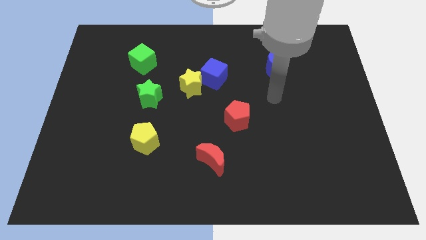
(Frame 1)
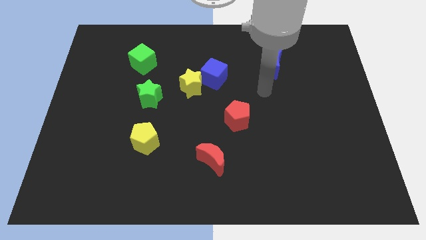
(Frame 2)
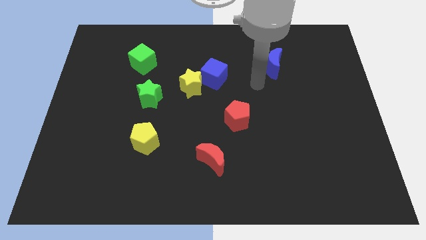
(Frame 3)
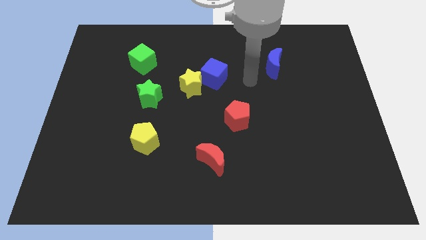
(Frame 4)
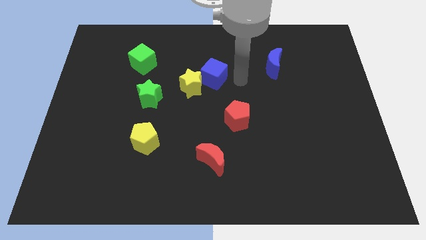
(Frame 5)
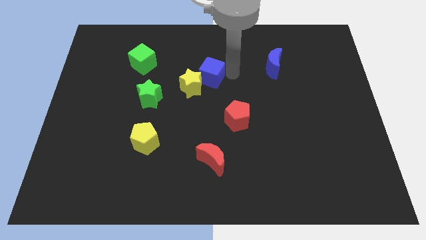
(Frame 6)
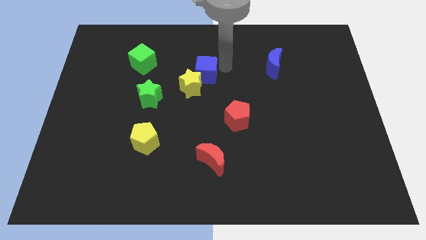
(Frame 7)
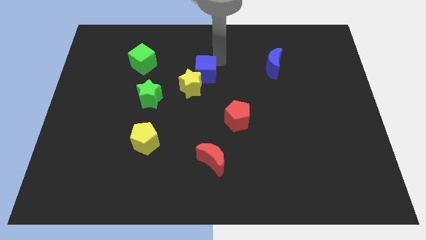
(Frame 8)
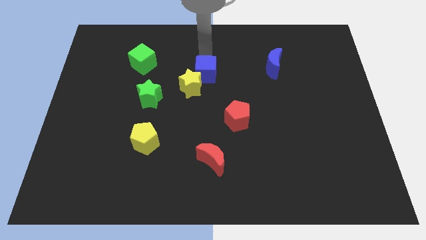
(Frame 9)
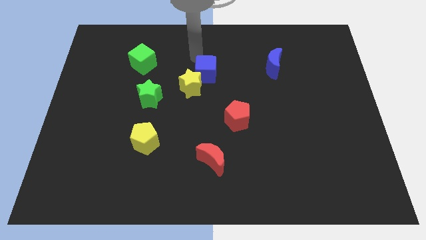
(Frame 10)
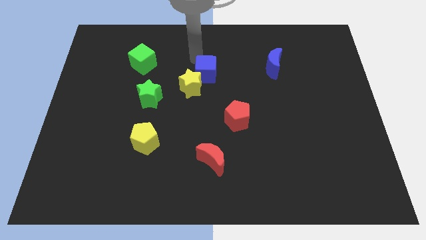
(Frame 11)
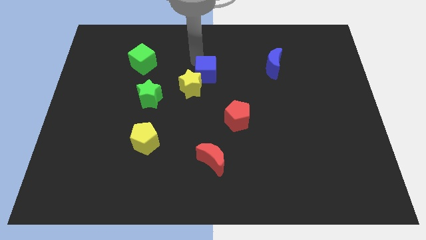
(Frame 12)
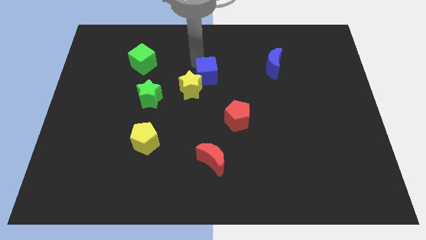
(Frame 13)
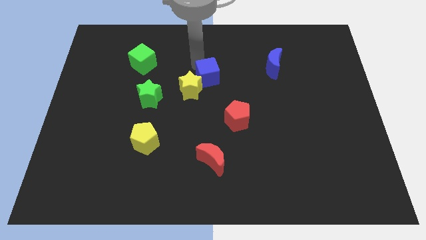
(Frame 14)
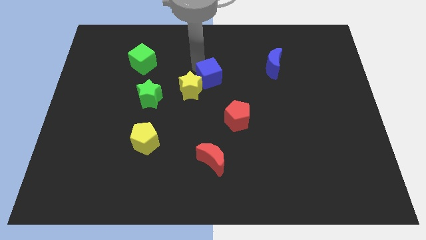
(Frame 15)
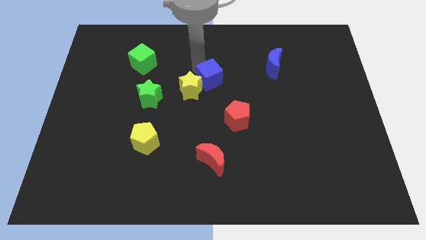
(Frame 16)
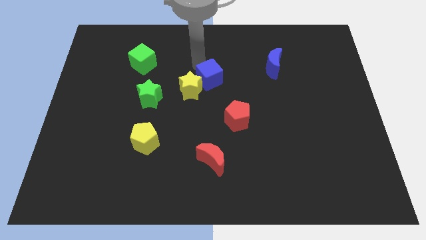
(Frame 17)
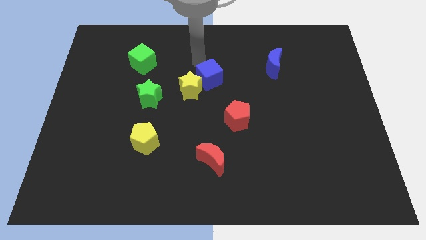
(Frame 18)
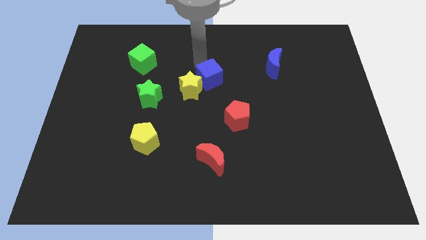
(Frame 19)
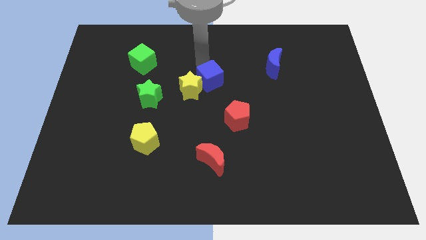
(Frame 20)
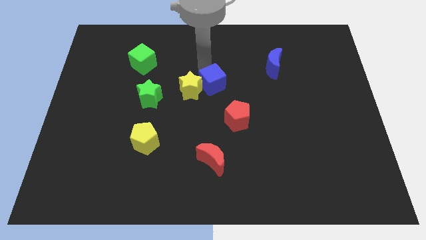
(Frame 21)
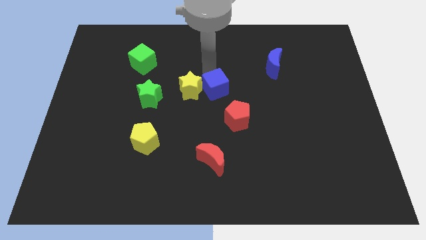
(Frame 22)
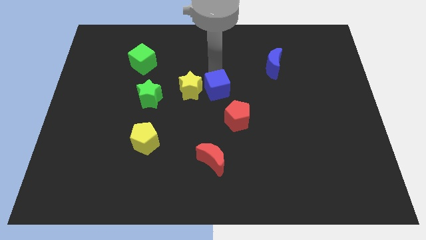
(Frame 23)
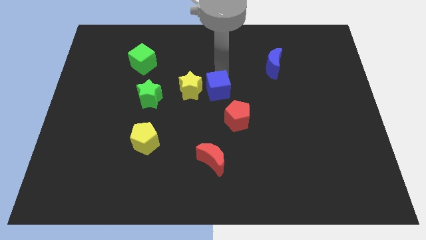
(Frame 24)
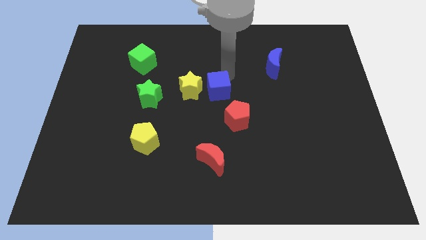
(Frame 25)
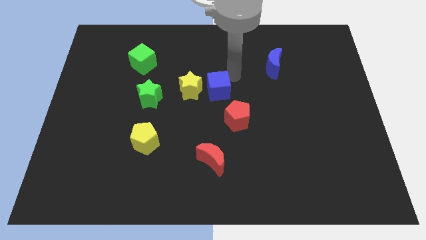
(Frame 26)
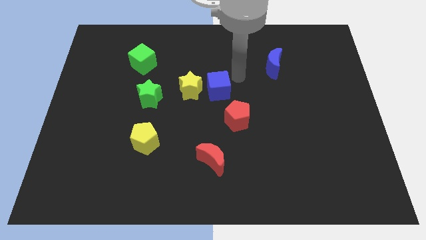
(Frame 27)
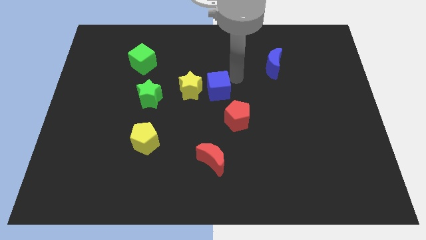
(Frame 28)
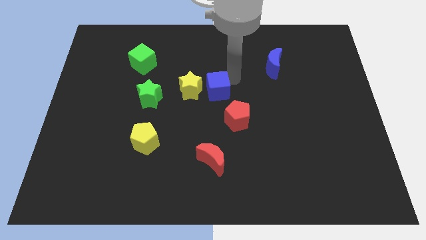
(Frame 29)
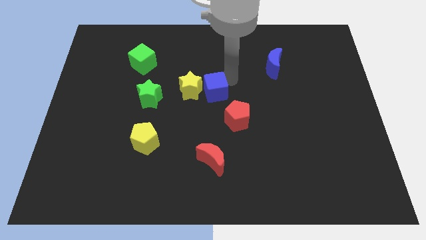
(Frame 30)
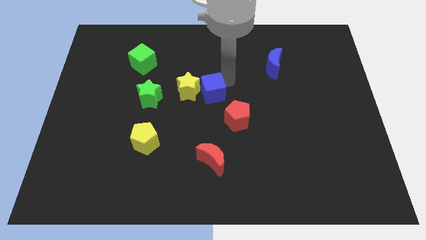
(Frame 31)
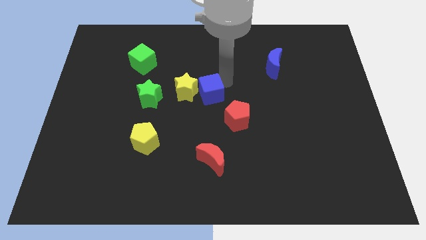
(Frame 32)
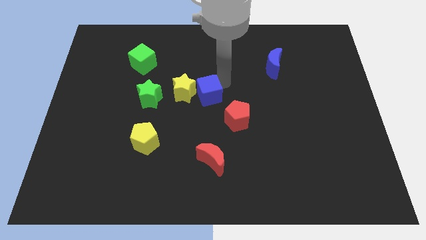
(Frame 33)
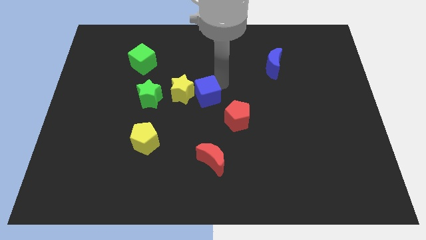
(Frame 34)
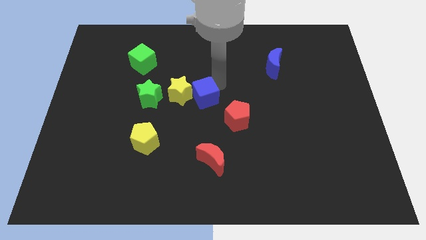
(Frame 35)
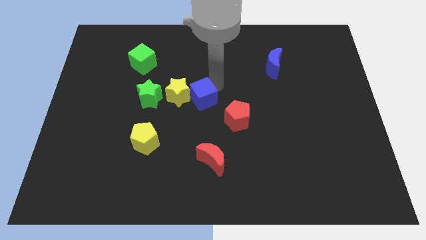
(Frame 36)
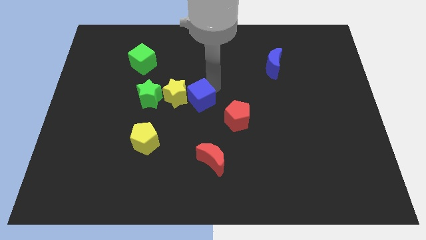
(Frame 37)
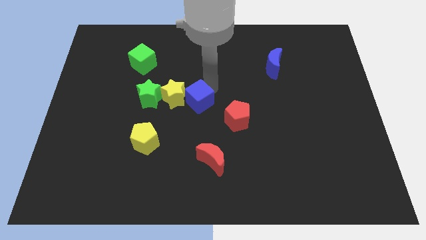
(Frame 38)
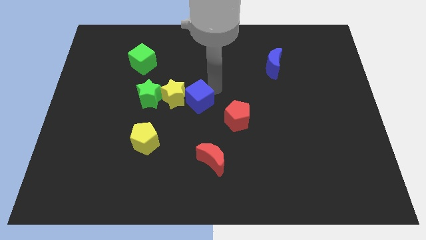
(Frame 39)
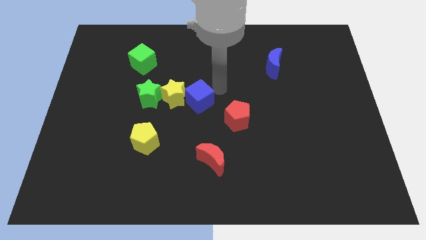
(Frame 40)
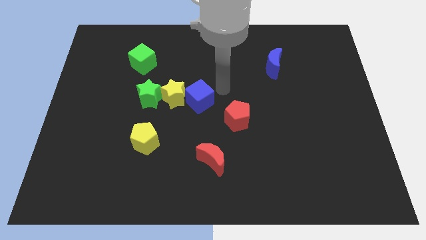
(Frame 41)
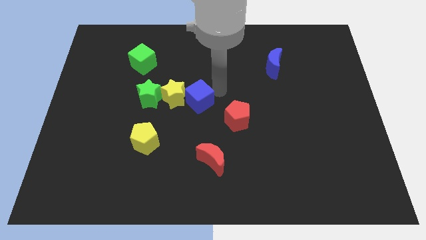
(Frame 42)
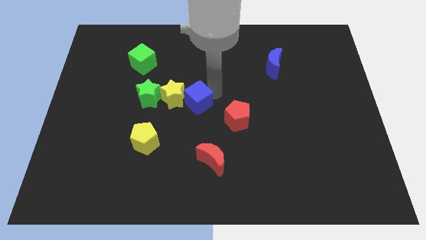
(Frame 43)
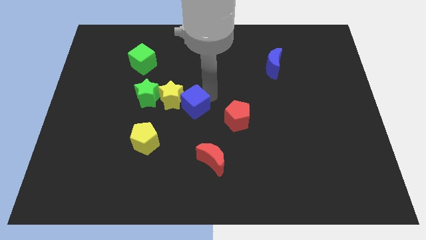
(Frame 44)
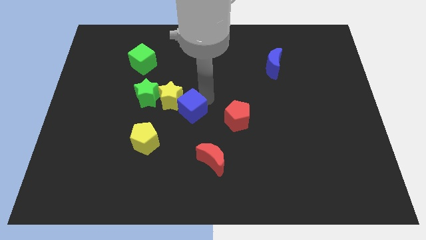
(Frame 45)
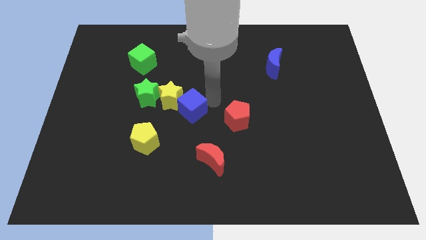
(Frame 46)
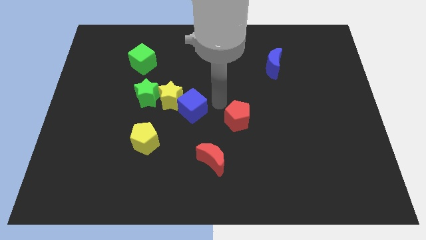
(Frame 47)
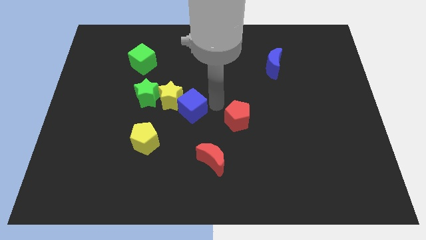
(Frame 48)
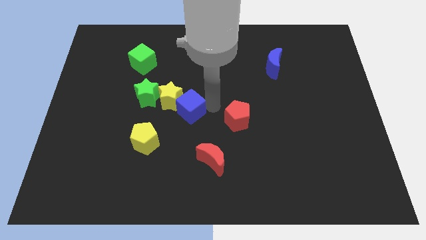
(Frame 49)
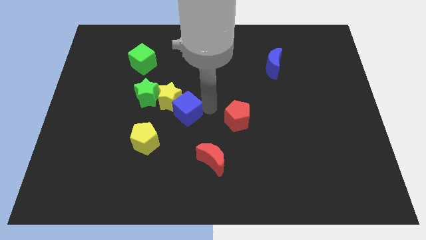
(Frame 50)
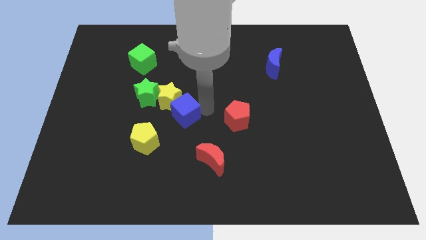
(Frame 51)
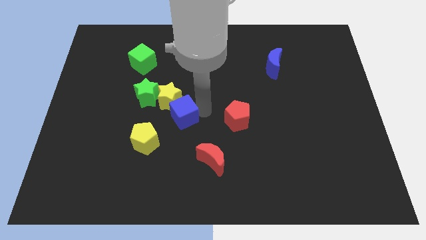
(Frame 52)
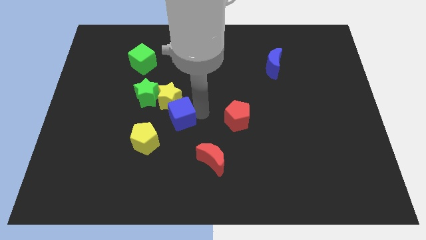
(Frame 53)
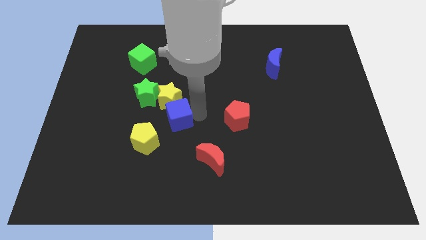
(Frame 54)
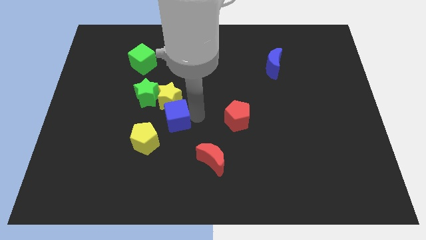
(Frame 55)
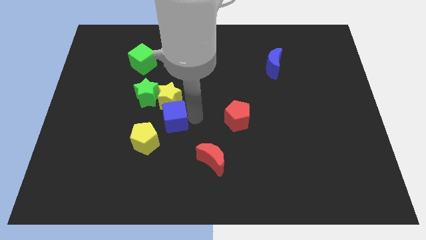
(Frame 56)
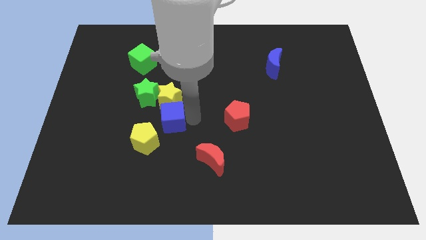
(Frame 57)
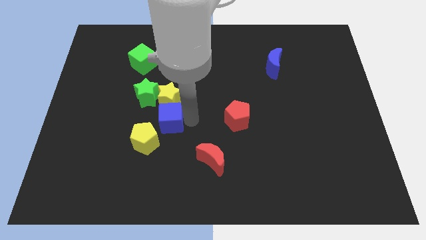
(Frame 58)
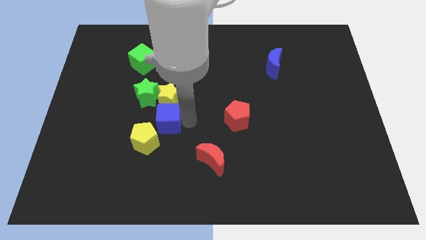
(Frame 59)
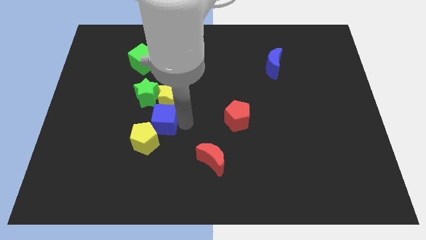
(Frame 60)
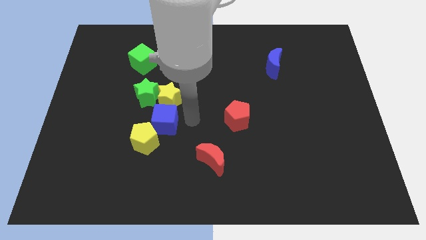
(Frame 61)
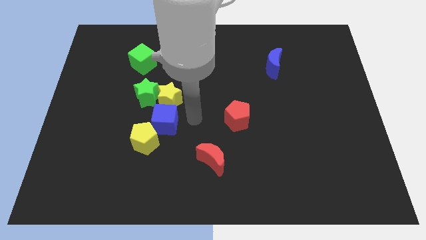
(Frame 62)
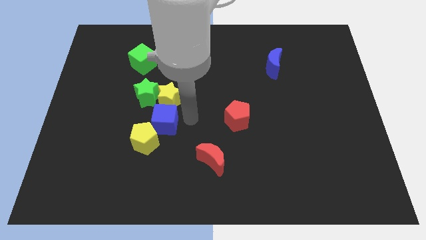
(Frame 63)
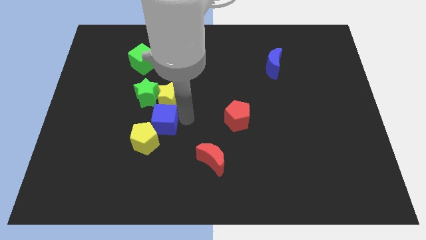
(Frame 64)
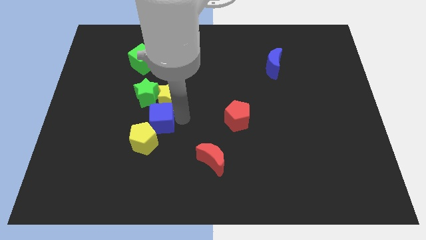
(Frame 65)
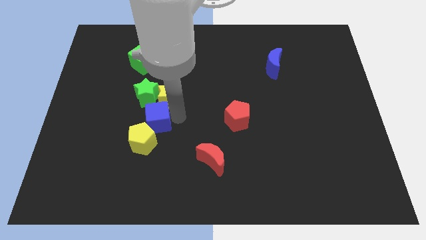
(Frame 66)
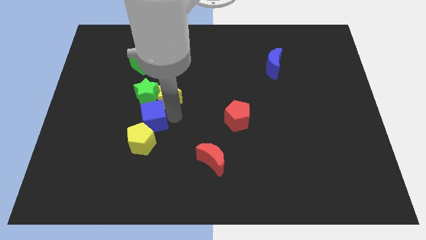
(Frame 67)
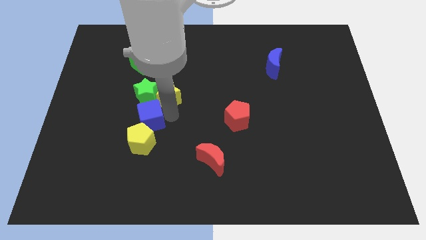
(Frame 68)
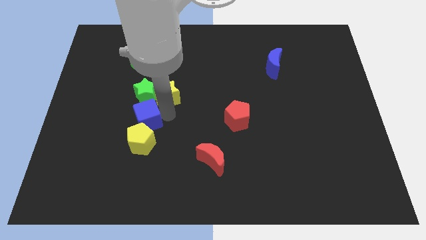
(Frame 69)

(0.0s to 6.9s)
move the blue cube down and to the left diagonally

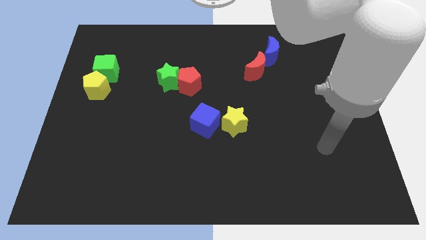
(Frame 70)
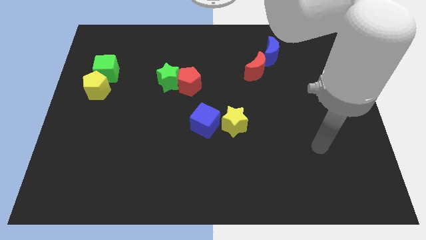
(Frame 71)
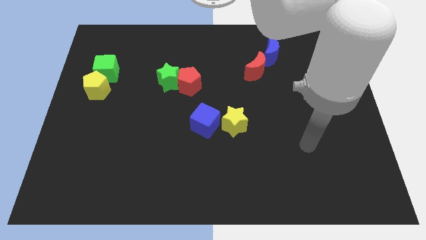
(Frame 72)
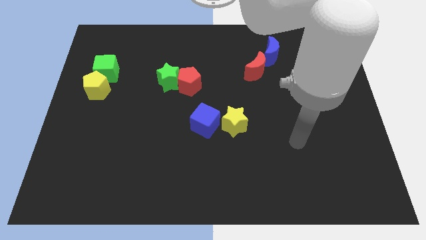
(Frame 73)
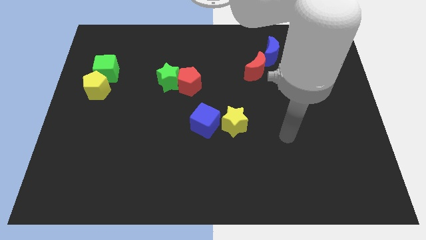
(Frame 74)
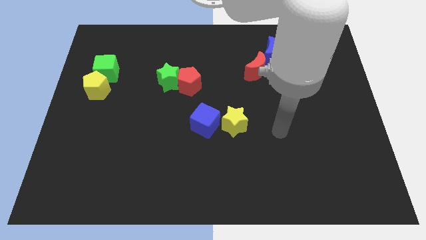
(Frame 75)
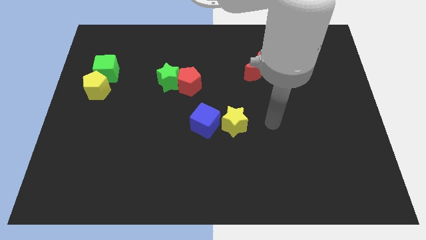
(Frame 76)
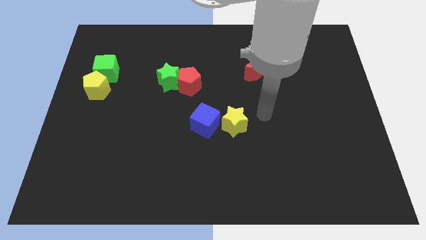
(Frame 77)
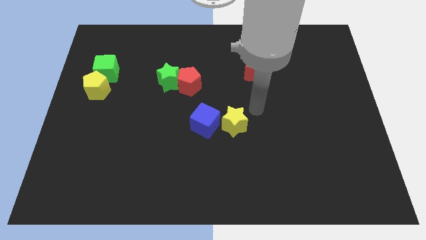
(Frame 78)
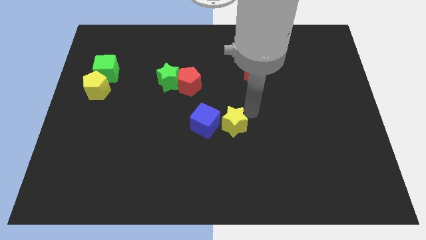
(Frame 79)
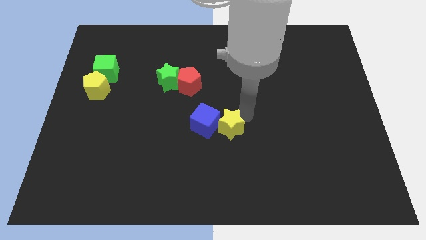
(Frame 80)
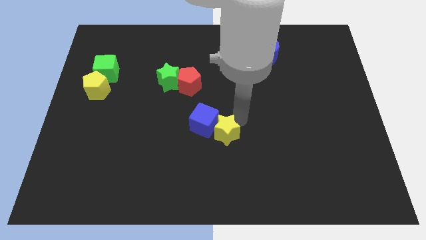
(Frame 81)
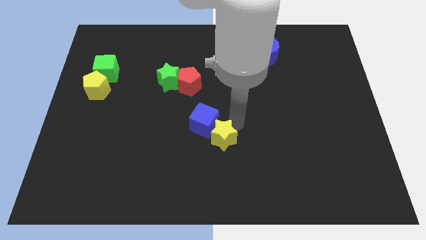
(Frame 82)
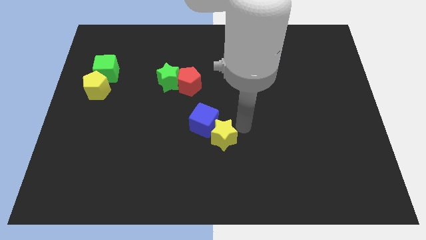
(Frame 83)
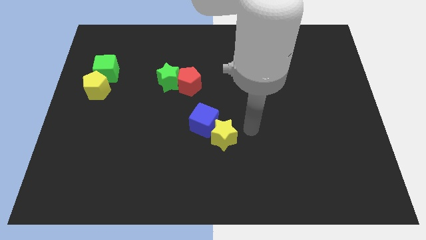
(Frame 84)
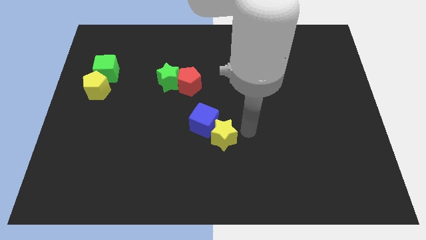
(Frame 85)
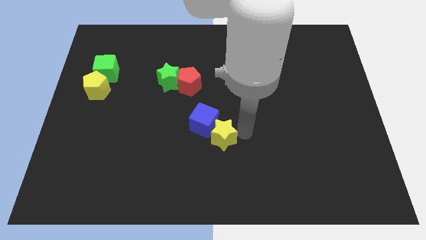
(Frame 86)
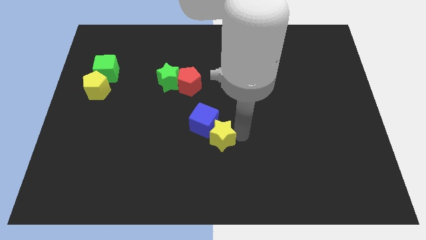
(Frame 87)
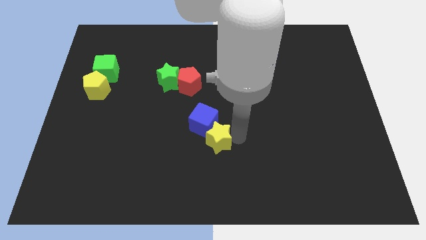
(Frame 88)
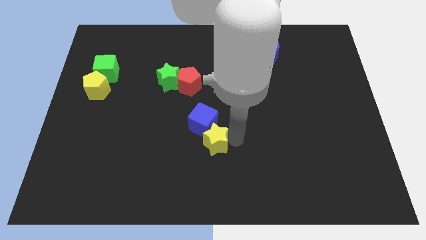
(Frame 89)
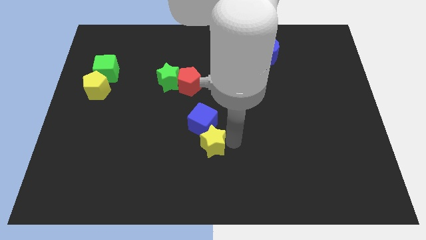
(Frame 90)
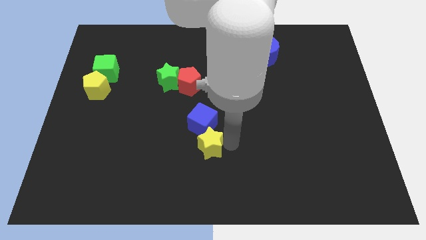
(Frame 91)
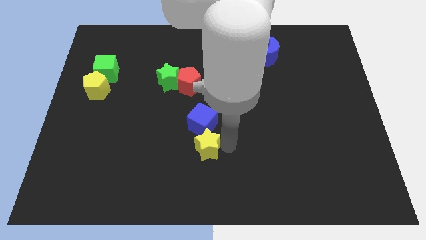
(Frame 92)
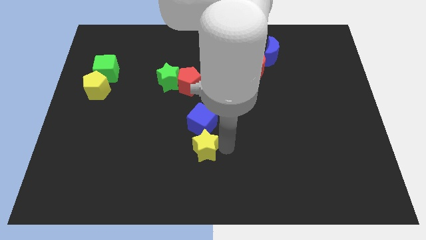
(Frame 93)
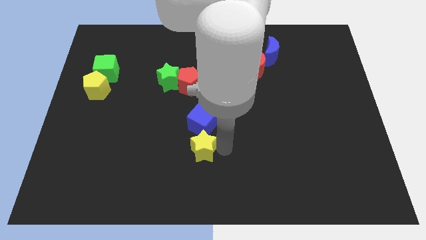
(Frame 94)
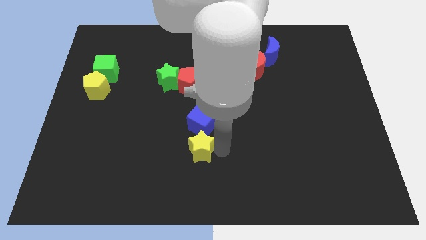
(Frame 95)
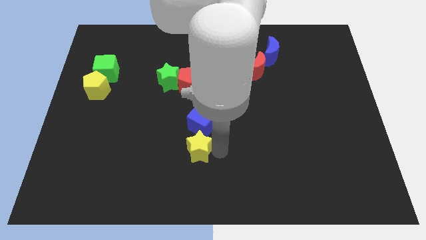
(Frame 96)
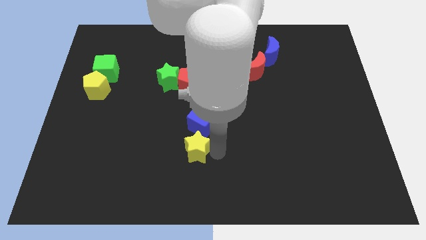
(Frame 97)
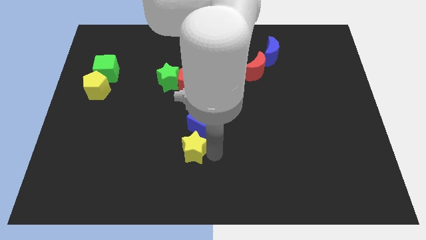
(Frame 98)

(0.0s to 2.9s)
slightly move the yellow star to the left
